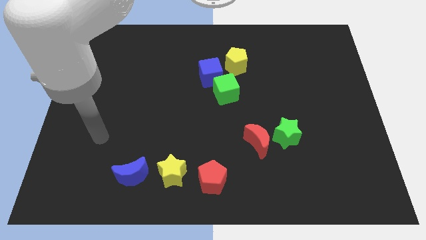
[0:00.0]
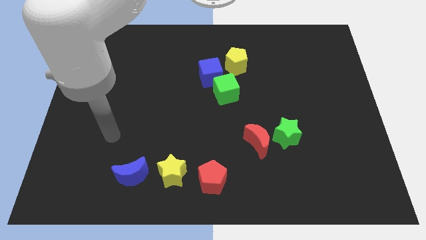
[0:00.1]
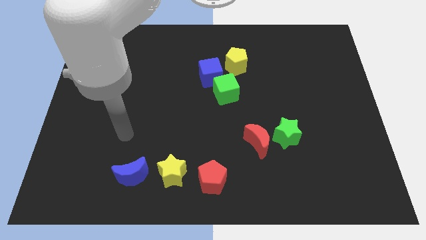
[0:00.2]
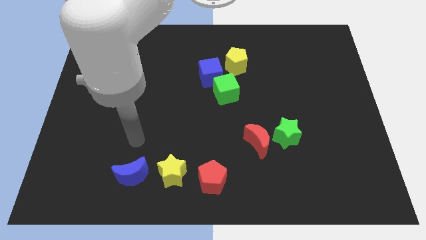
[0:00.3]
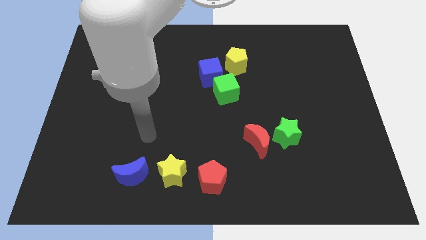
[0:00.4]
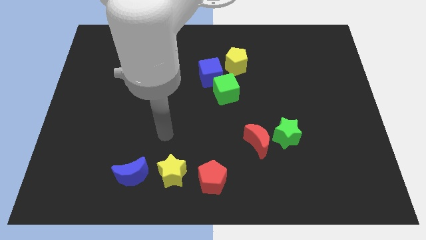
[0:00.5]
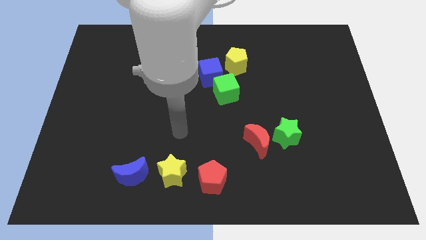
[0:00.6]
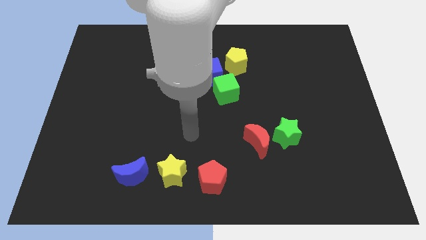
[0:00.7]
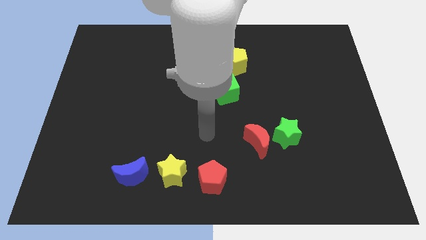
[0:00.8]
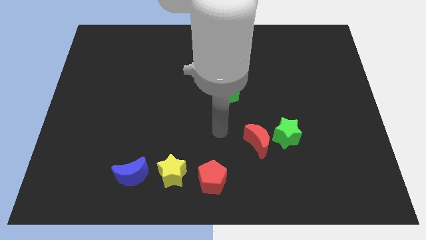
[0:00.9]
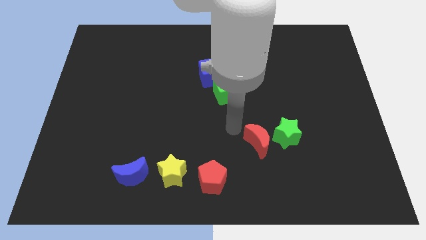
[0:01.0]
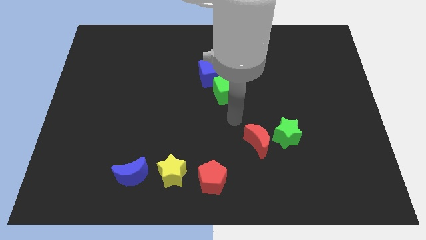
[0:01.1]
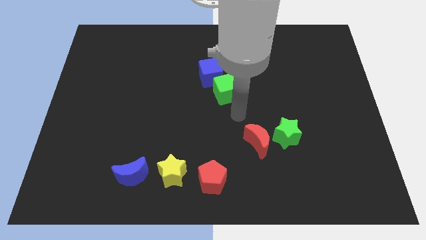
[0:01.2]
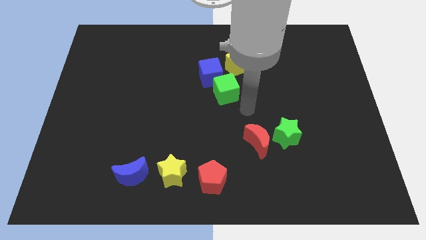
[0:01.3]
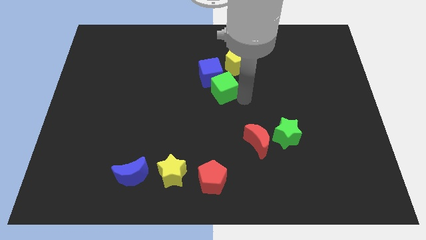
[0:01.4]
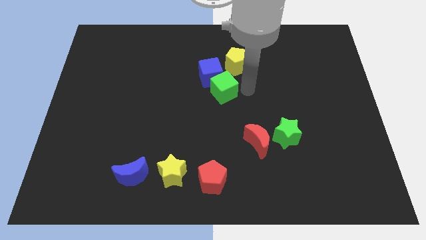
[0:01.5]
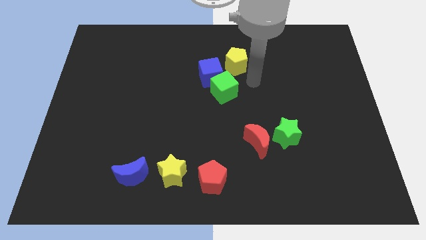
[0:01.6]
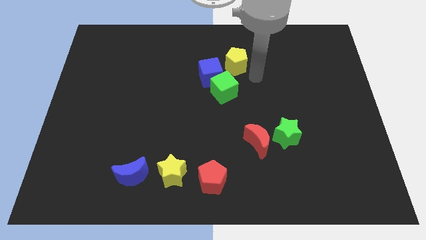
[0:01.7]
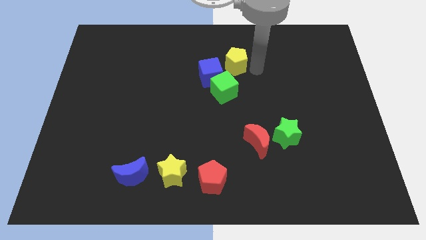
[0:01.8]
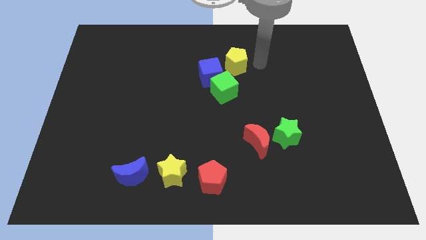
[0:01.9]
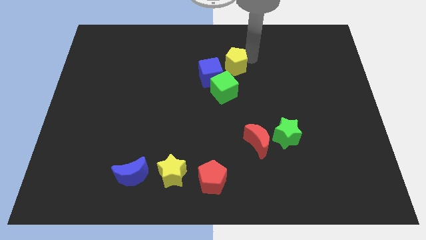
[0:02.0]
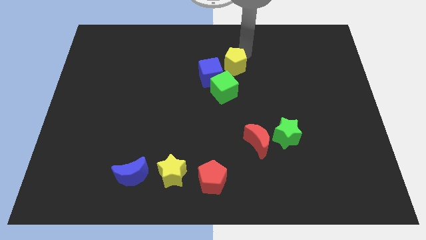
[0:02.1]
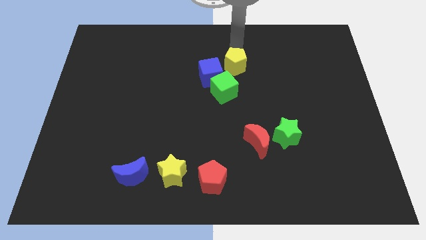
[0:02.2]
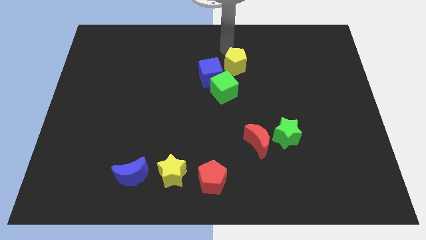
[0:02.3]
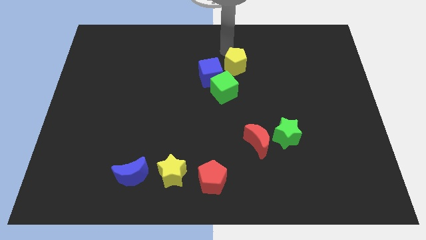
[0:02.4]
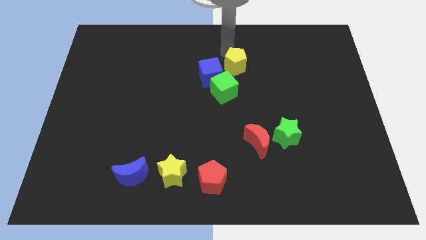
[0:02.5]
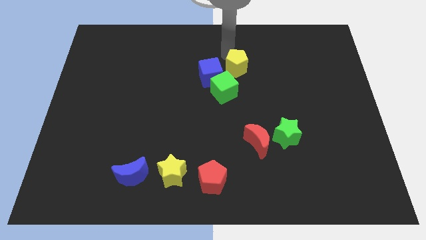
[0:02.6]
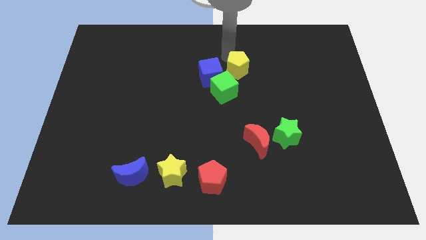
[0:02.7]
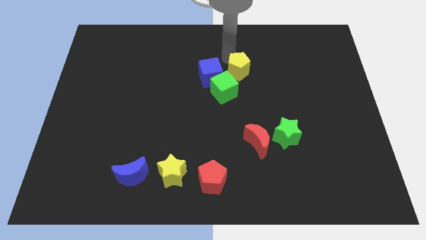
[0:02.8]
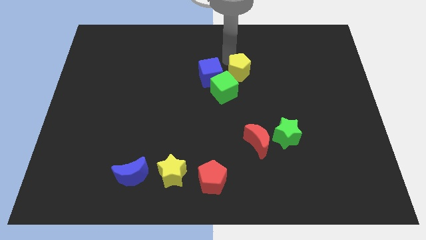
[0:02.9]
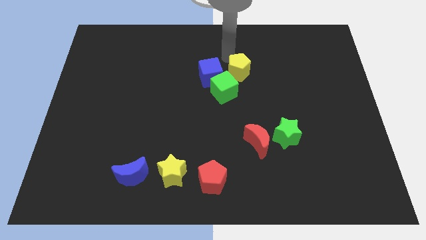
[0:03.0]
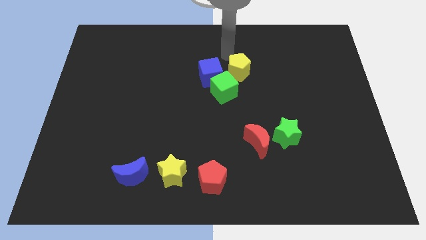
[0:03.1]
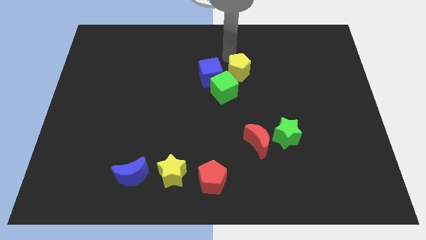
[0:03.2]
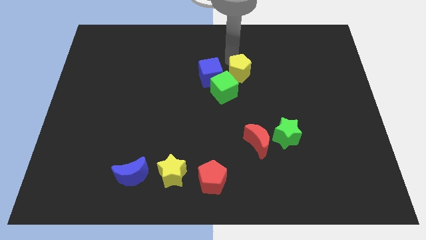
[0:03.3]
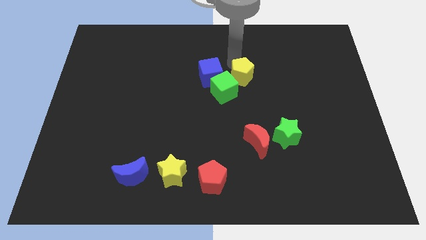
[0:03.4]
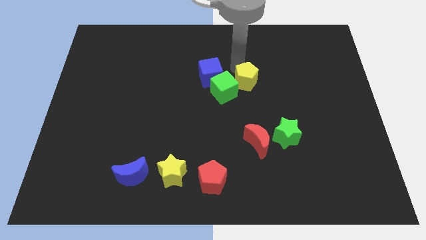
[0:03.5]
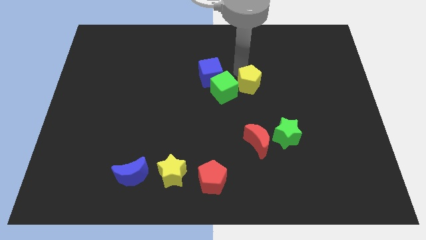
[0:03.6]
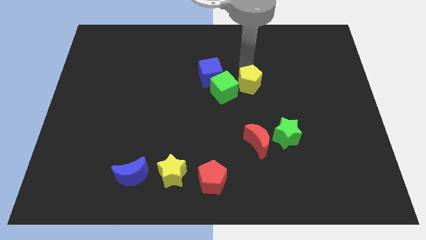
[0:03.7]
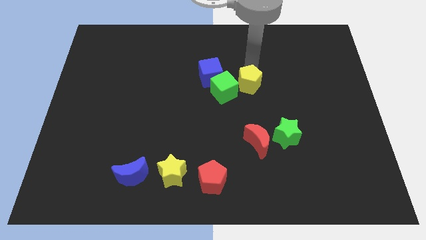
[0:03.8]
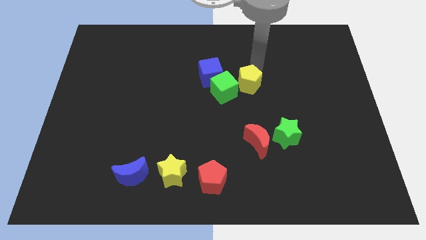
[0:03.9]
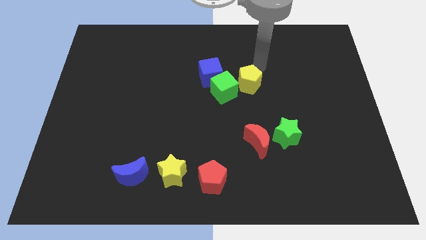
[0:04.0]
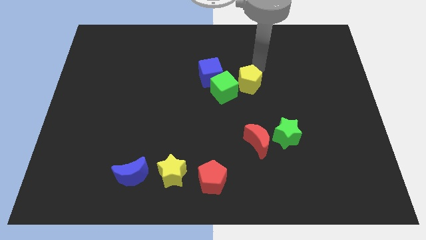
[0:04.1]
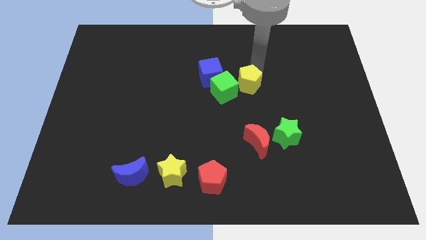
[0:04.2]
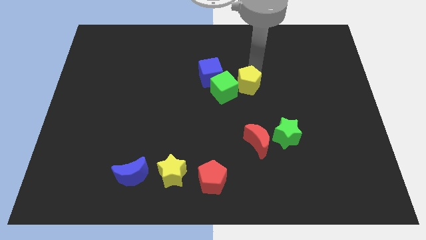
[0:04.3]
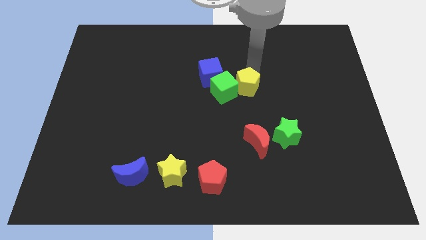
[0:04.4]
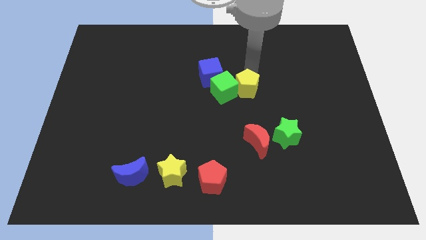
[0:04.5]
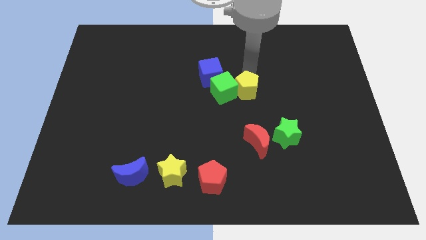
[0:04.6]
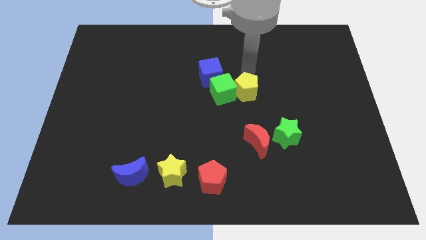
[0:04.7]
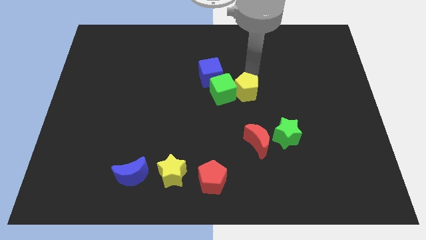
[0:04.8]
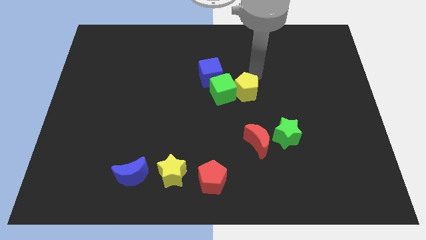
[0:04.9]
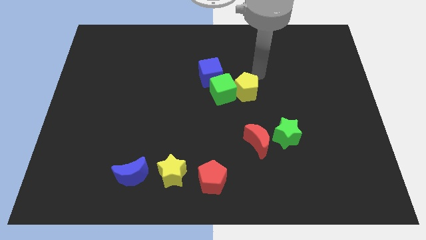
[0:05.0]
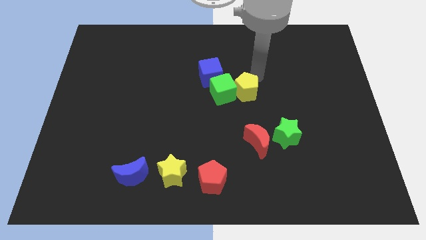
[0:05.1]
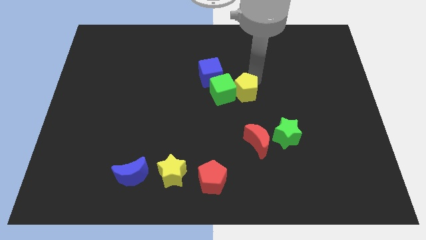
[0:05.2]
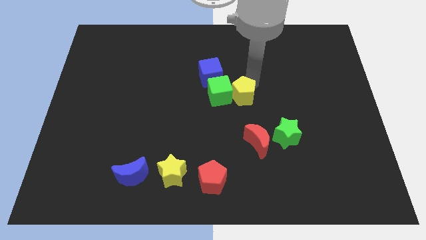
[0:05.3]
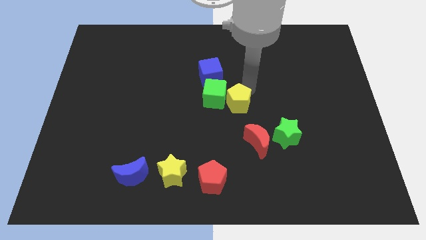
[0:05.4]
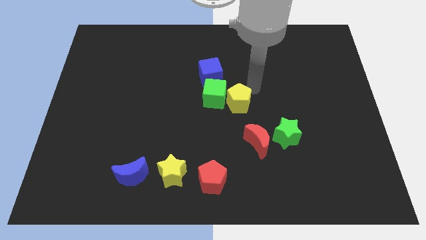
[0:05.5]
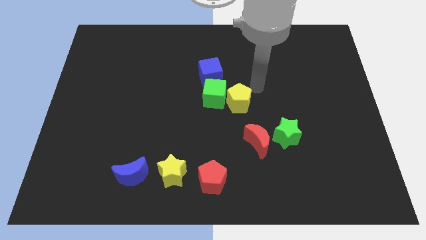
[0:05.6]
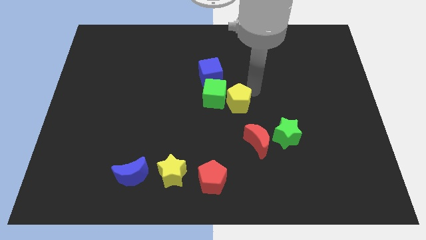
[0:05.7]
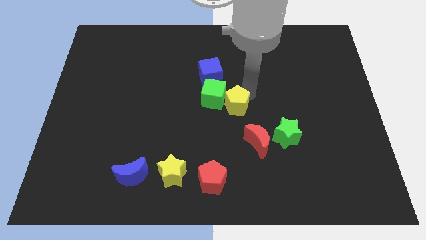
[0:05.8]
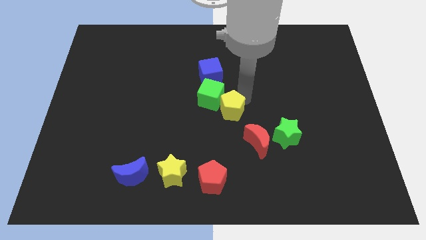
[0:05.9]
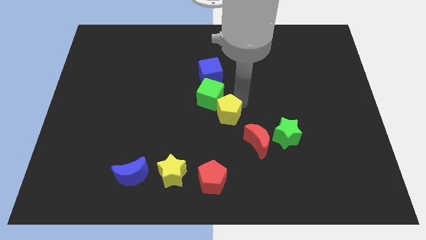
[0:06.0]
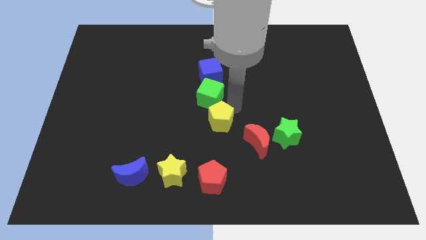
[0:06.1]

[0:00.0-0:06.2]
slide the yellow pentagon to the top side of the red pentagon

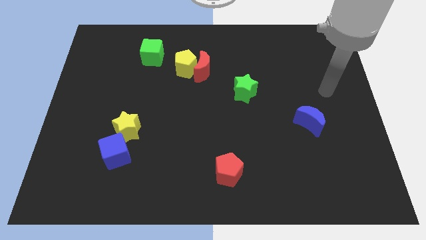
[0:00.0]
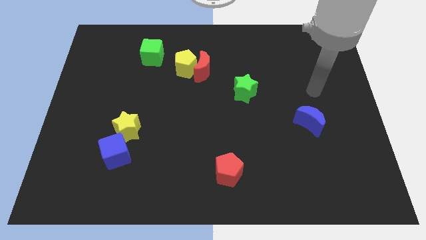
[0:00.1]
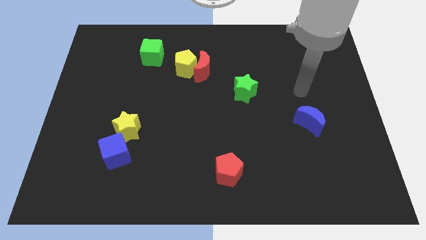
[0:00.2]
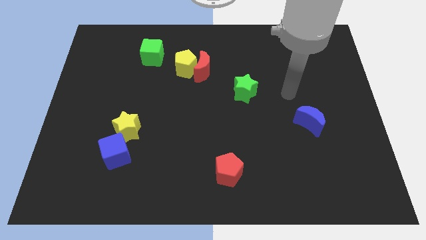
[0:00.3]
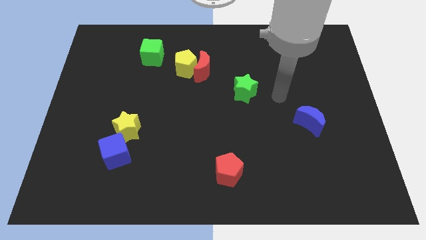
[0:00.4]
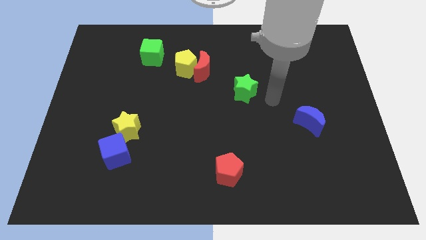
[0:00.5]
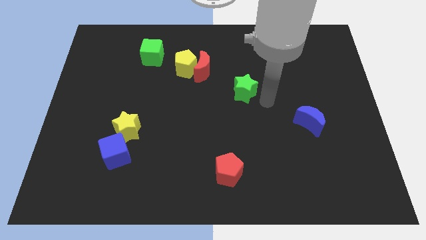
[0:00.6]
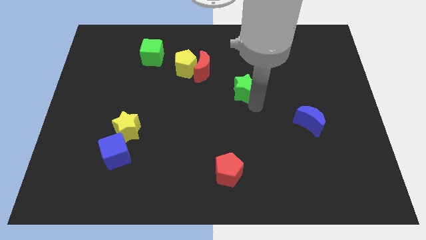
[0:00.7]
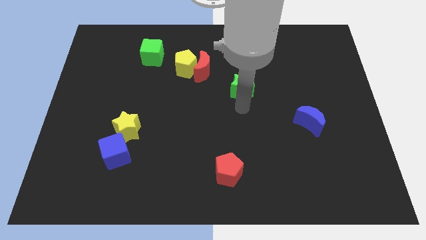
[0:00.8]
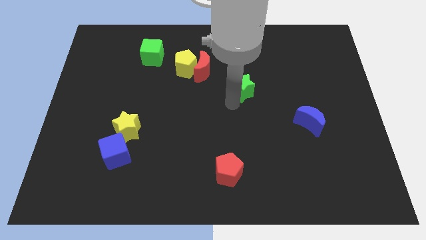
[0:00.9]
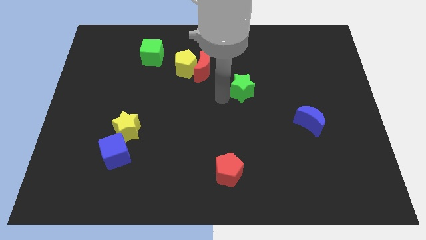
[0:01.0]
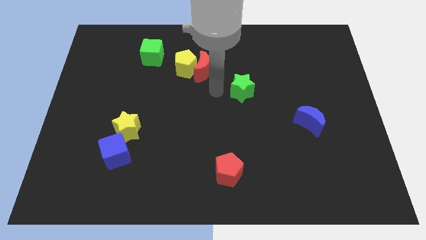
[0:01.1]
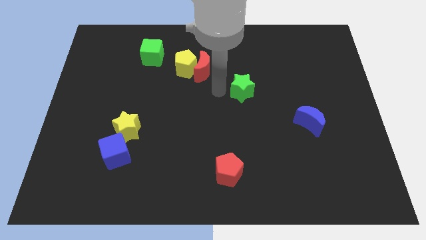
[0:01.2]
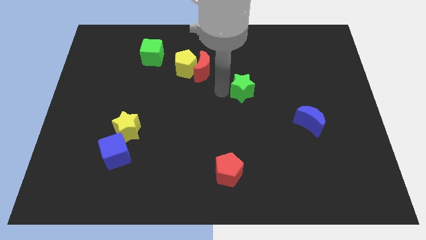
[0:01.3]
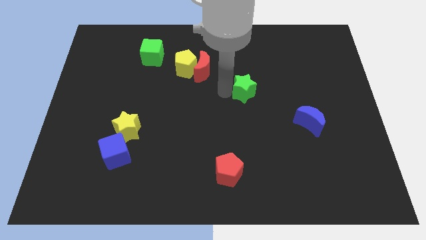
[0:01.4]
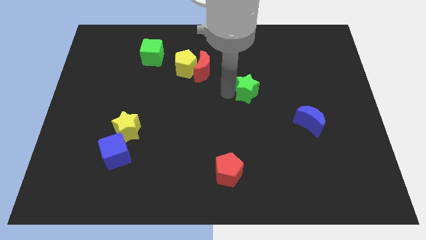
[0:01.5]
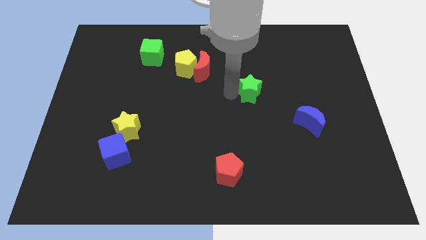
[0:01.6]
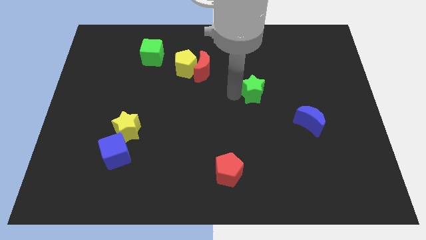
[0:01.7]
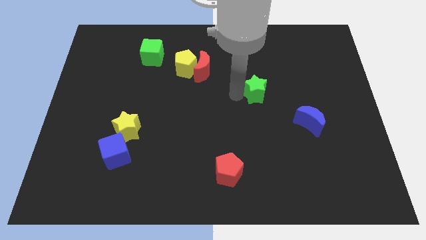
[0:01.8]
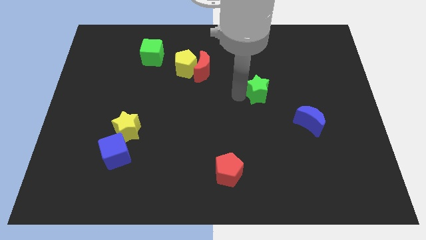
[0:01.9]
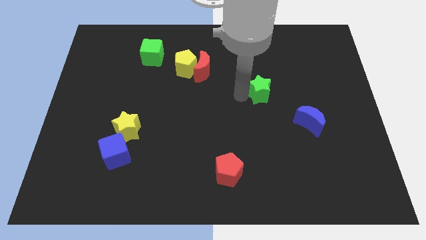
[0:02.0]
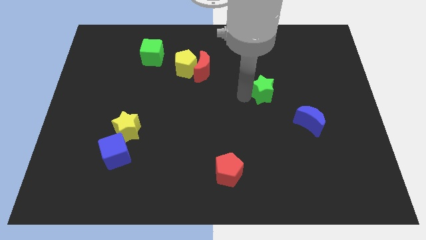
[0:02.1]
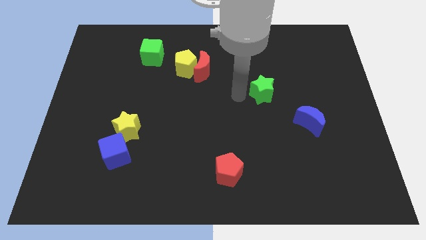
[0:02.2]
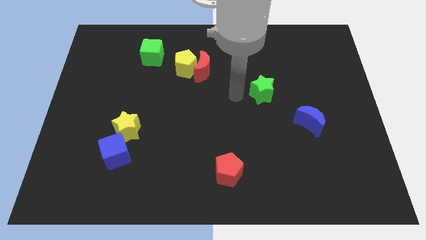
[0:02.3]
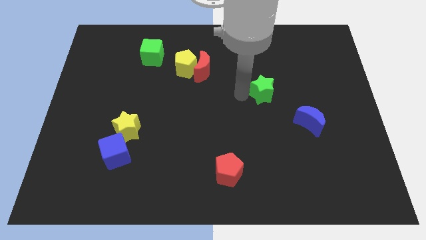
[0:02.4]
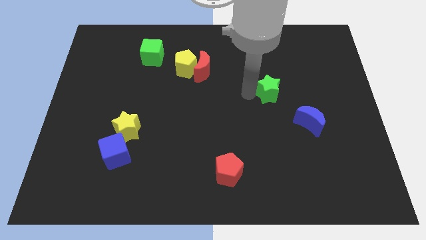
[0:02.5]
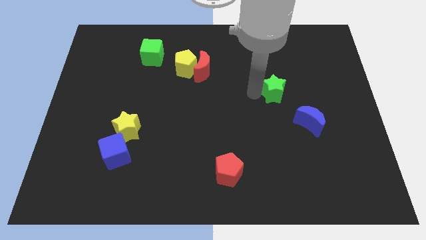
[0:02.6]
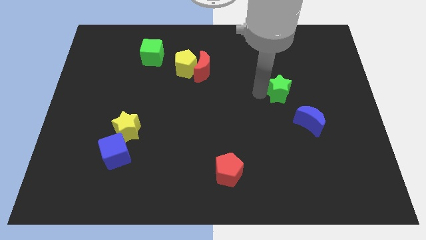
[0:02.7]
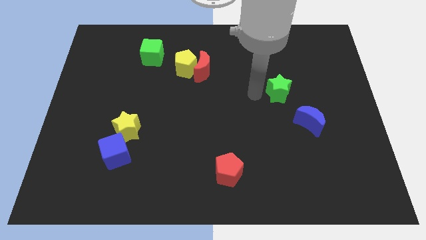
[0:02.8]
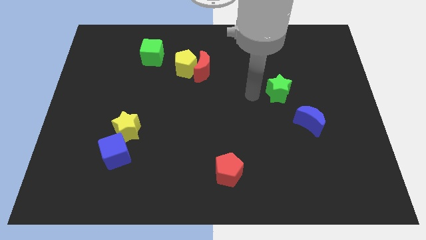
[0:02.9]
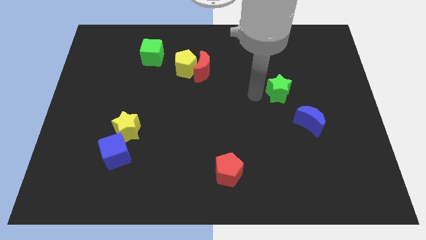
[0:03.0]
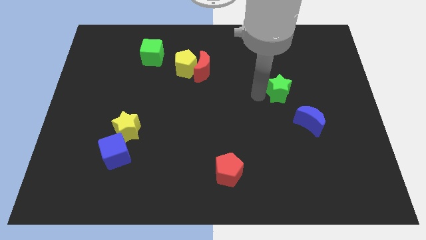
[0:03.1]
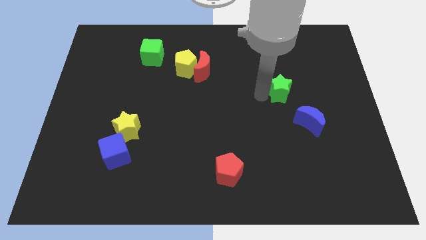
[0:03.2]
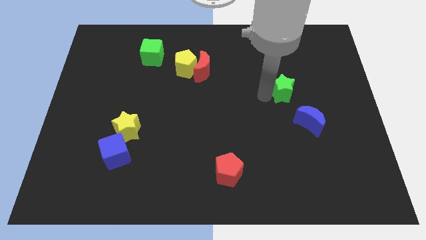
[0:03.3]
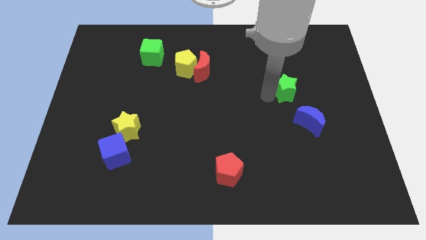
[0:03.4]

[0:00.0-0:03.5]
push the green star above the blue moon
